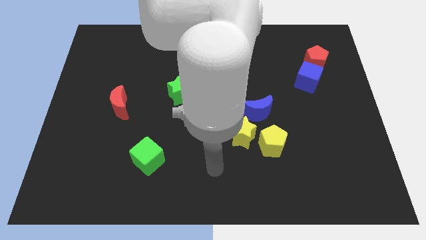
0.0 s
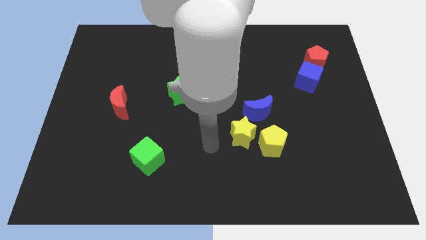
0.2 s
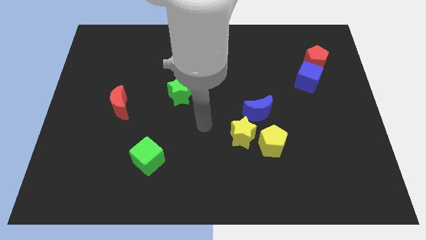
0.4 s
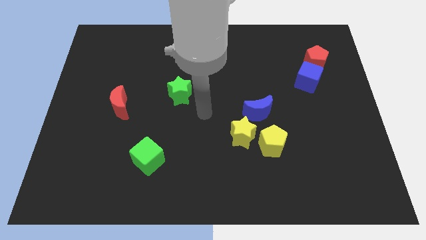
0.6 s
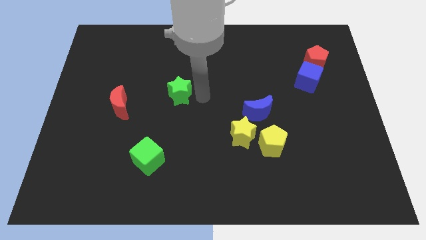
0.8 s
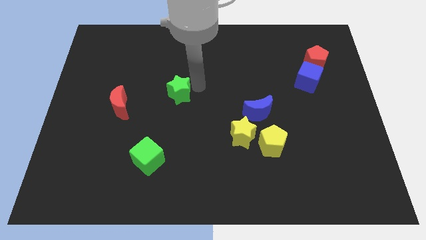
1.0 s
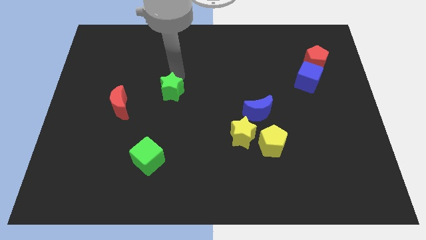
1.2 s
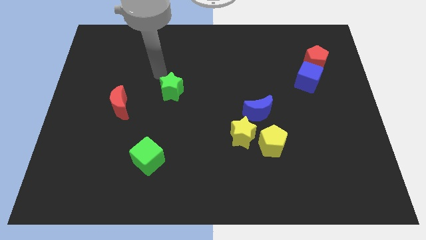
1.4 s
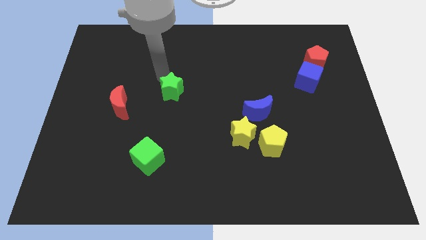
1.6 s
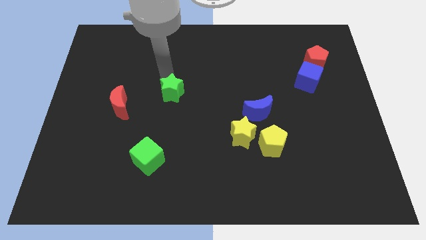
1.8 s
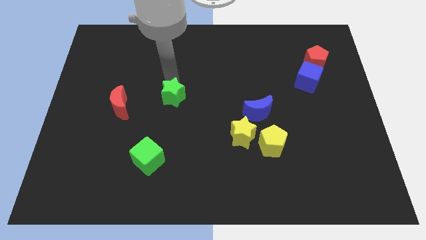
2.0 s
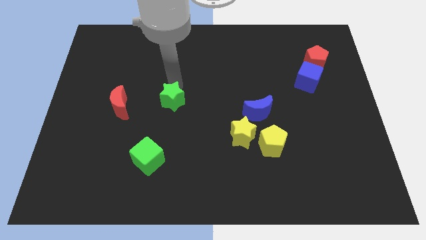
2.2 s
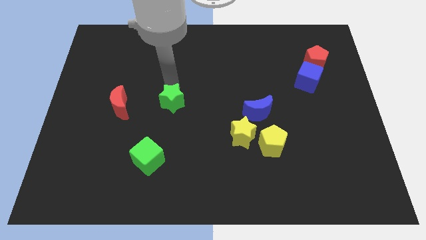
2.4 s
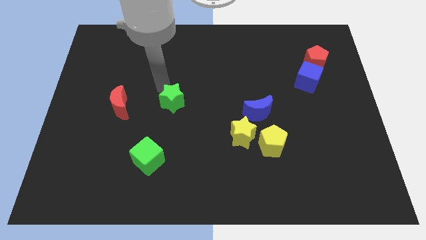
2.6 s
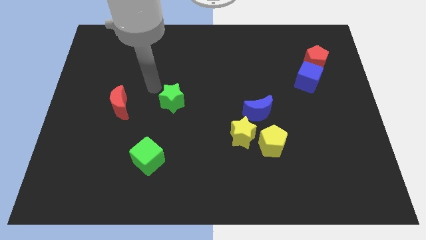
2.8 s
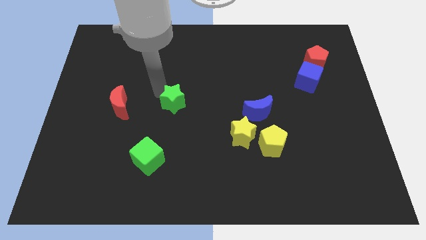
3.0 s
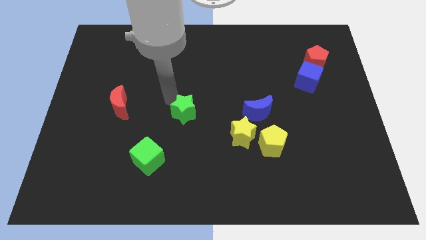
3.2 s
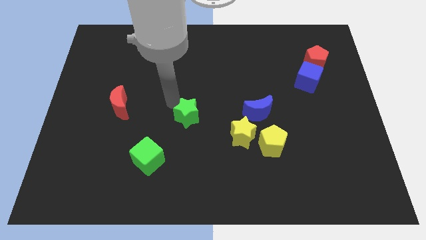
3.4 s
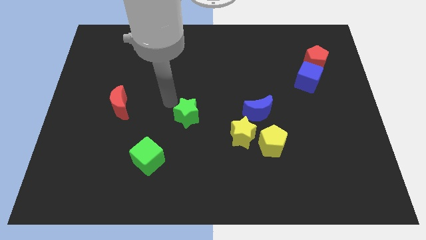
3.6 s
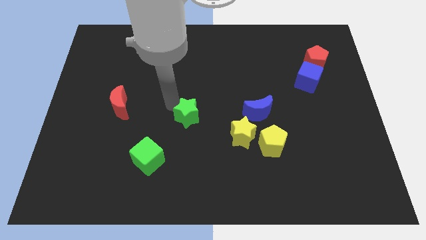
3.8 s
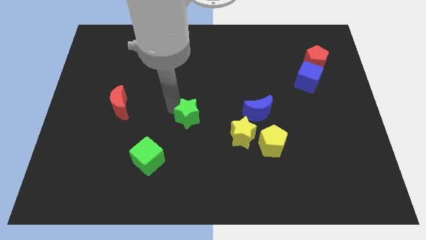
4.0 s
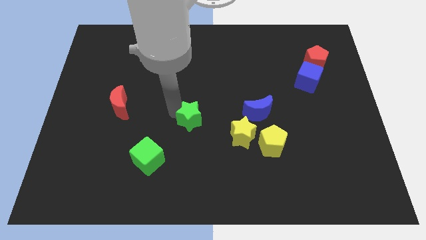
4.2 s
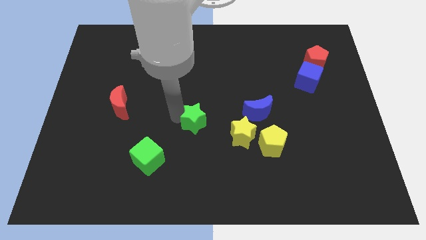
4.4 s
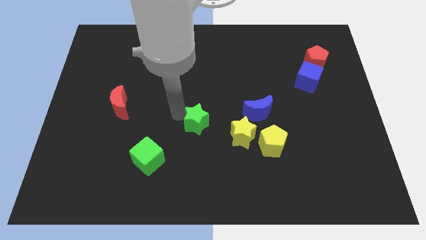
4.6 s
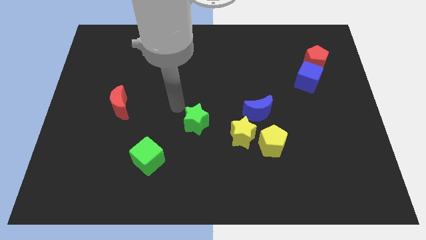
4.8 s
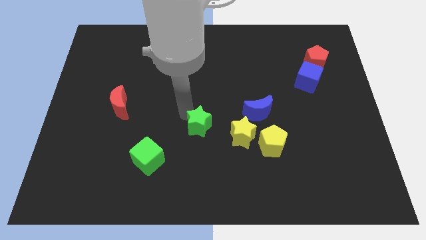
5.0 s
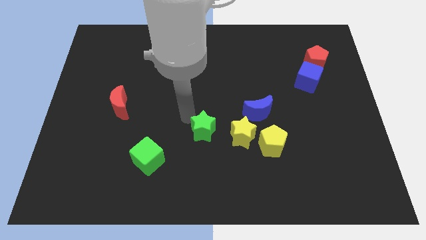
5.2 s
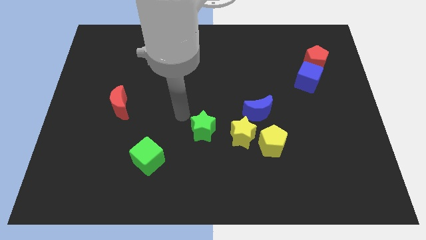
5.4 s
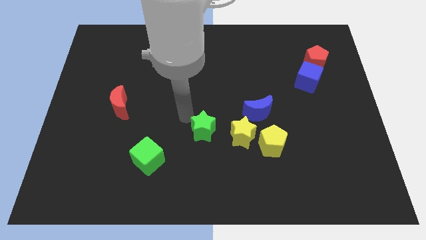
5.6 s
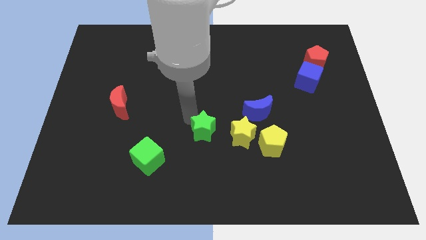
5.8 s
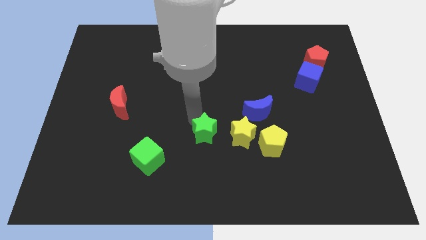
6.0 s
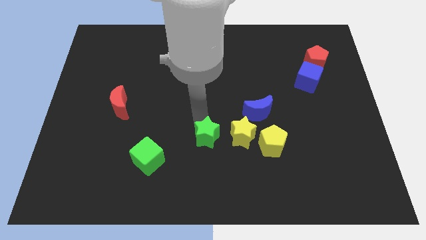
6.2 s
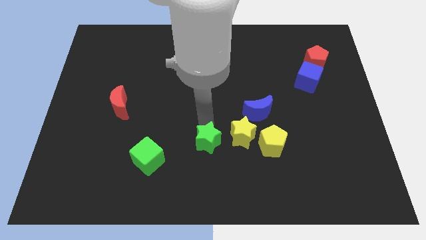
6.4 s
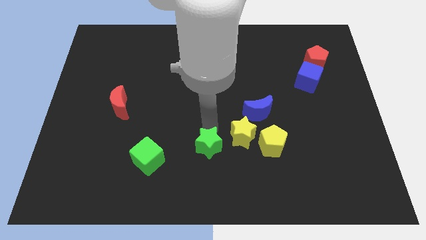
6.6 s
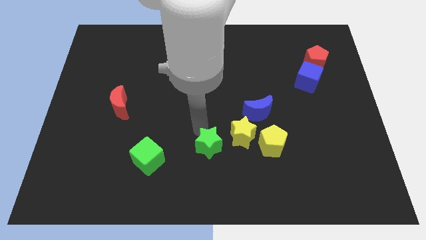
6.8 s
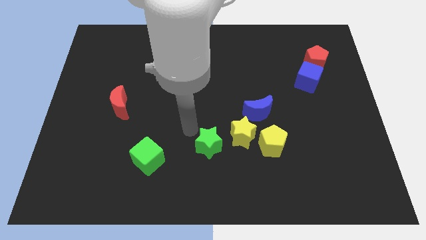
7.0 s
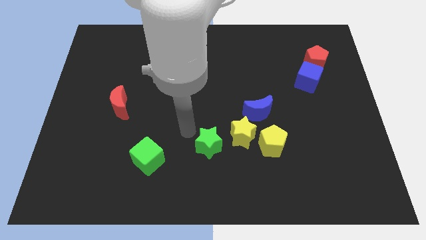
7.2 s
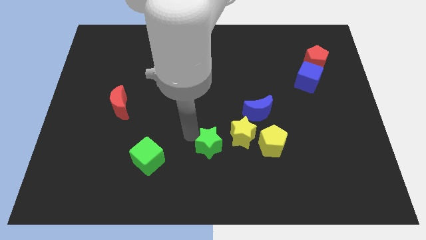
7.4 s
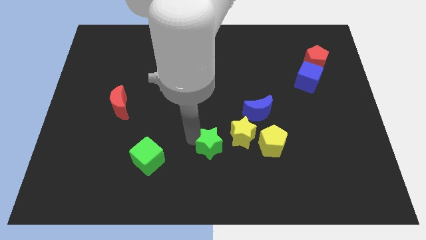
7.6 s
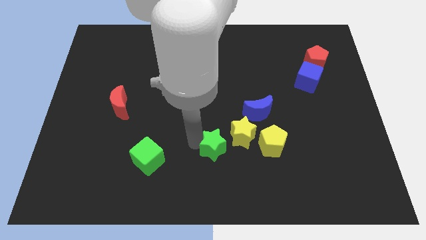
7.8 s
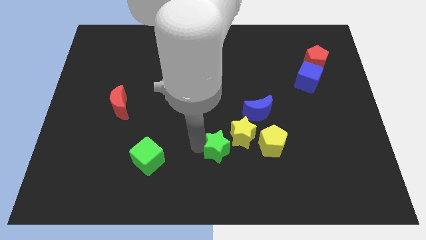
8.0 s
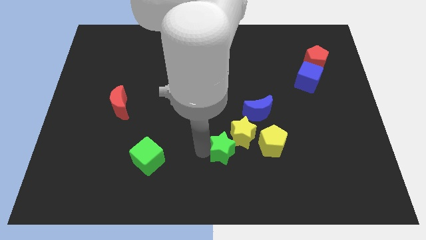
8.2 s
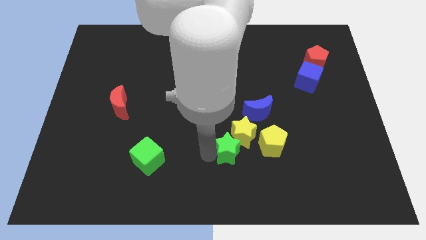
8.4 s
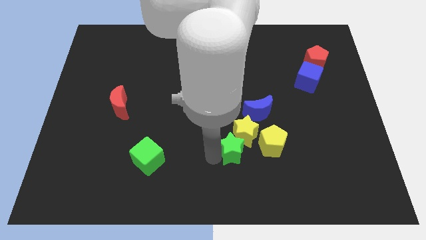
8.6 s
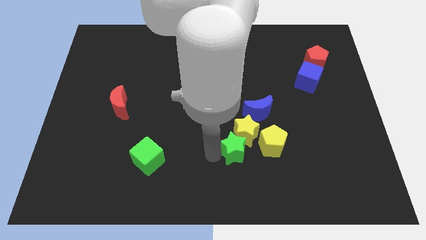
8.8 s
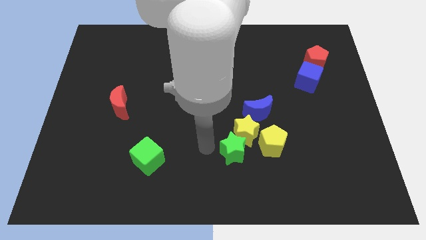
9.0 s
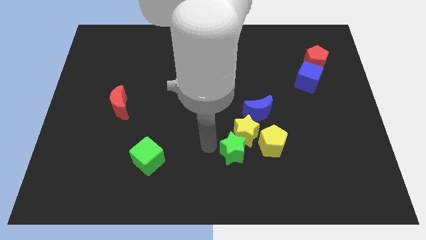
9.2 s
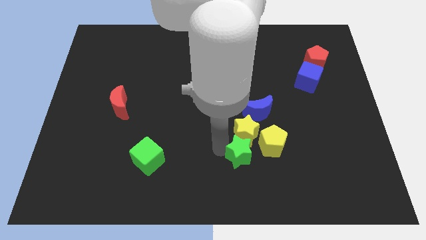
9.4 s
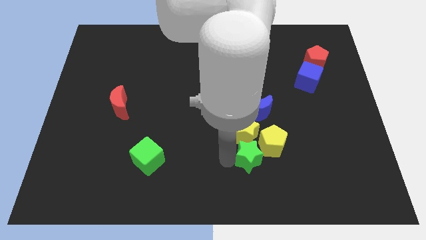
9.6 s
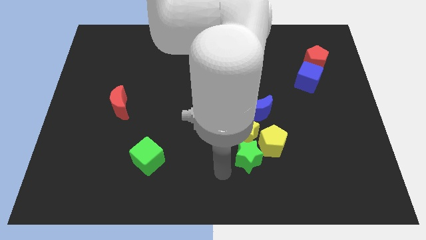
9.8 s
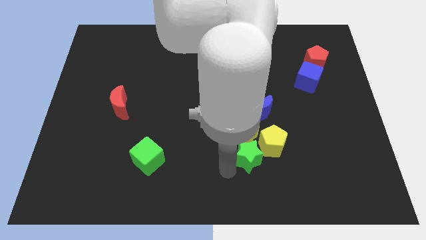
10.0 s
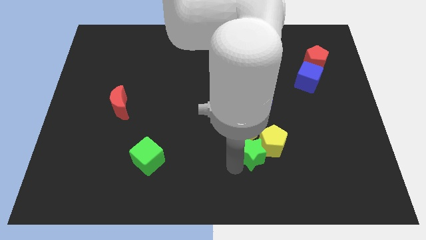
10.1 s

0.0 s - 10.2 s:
put the green star towards the yellow pentagon

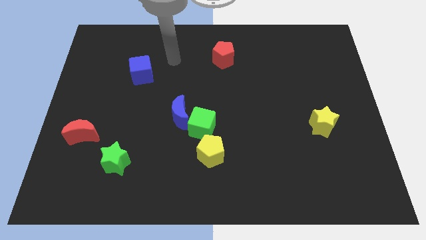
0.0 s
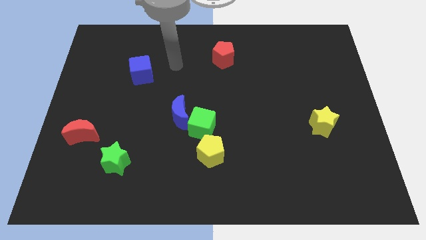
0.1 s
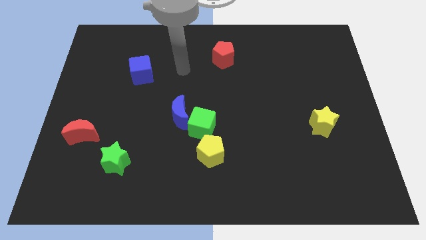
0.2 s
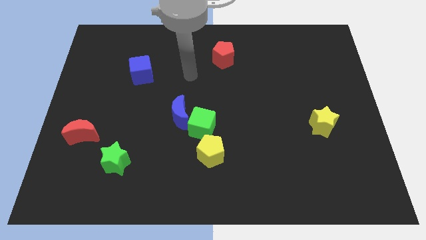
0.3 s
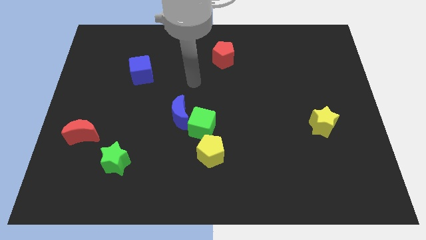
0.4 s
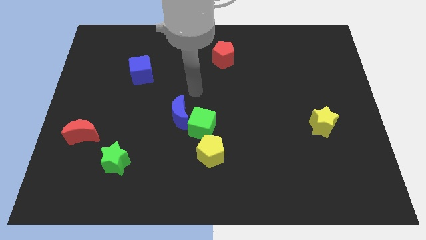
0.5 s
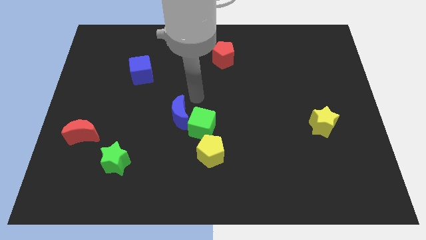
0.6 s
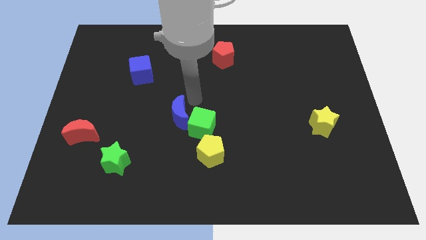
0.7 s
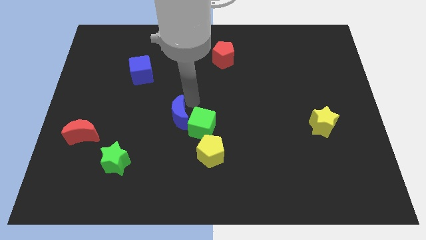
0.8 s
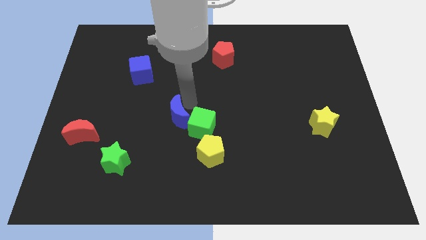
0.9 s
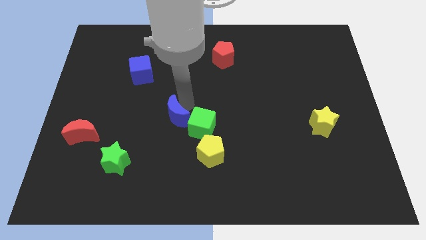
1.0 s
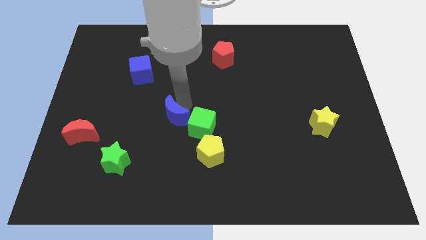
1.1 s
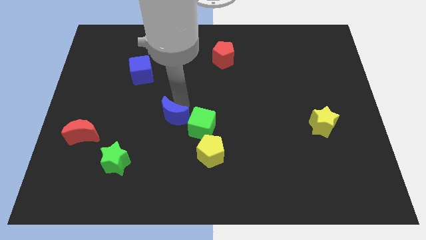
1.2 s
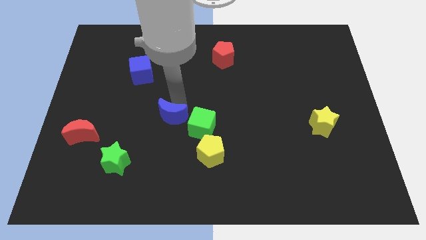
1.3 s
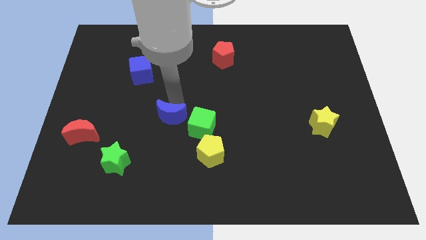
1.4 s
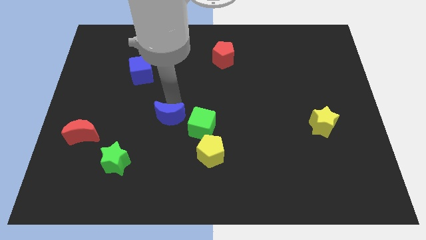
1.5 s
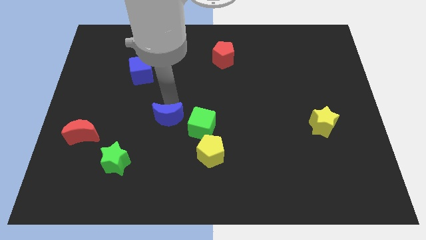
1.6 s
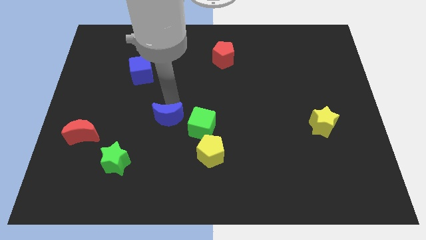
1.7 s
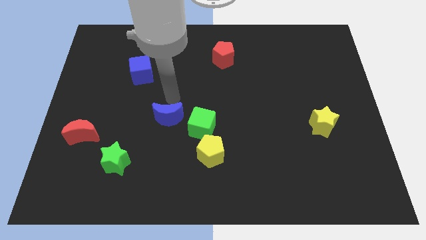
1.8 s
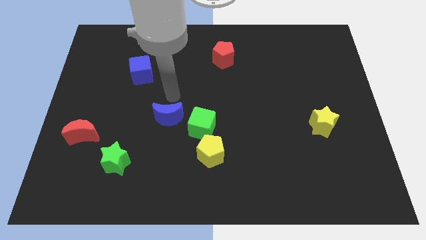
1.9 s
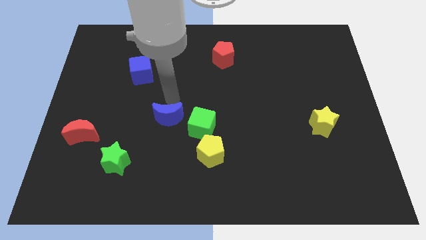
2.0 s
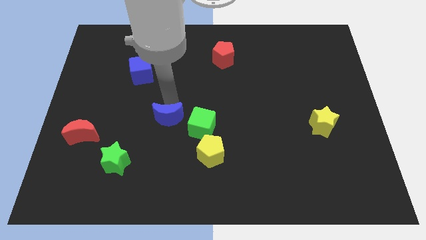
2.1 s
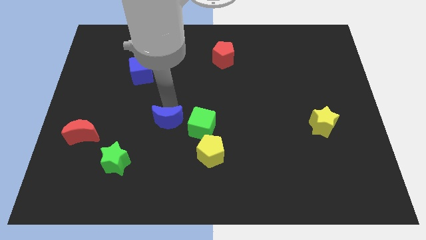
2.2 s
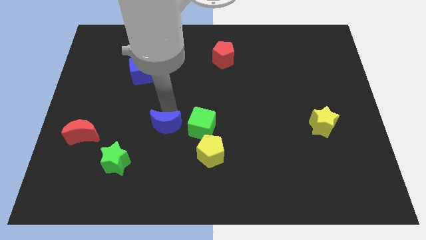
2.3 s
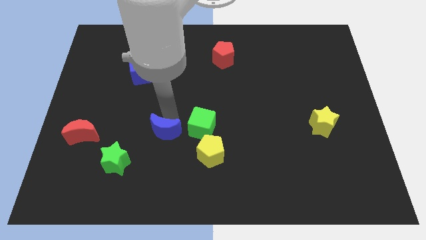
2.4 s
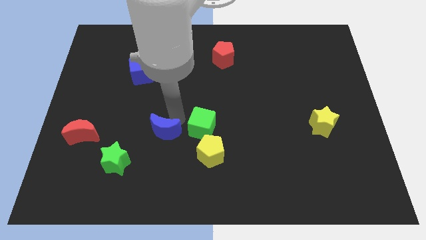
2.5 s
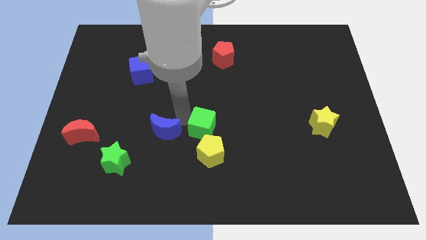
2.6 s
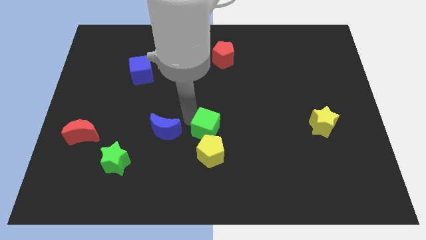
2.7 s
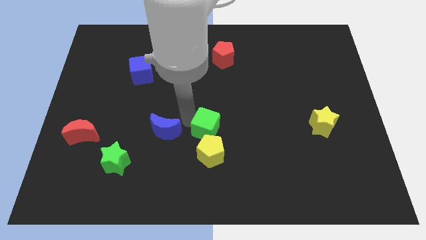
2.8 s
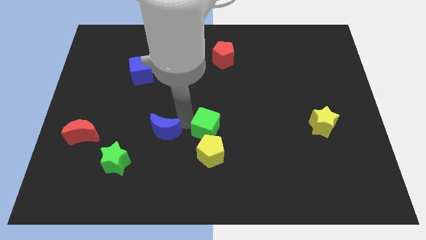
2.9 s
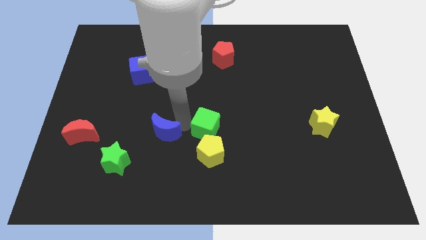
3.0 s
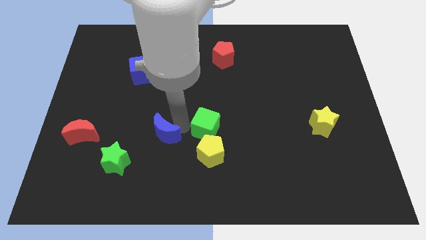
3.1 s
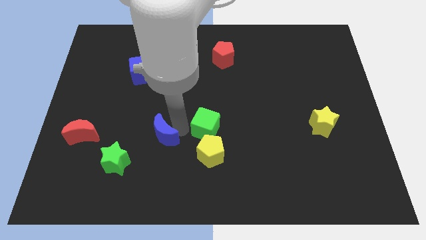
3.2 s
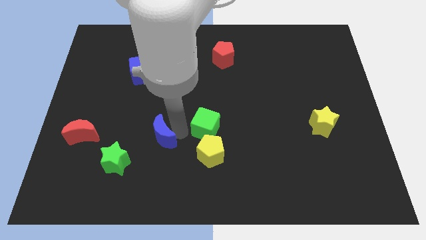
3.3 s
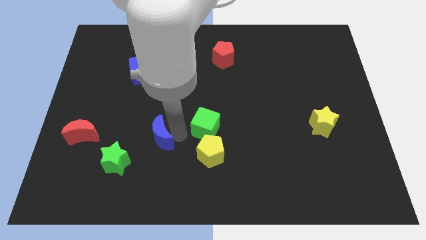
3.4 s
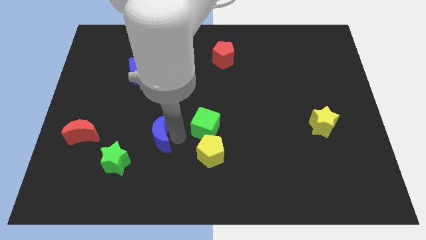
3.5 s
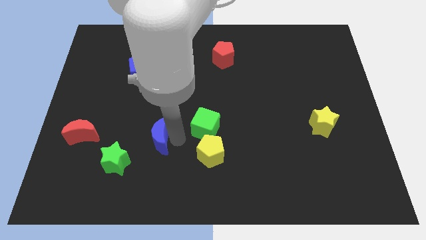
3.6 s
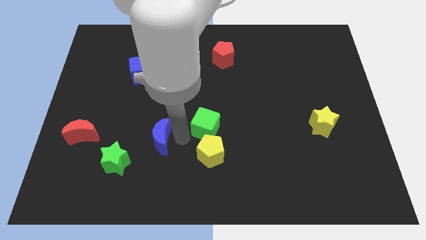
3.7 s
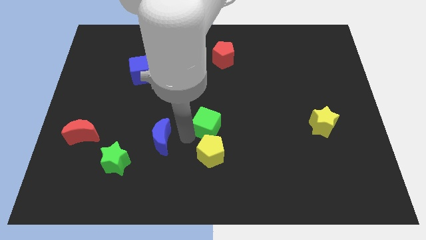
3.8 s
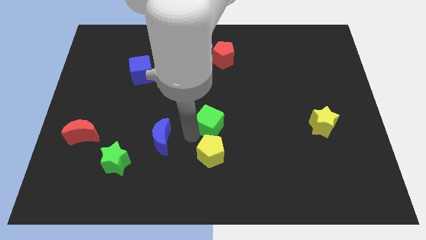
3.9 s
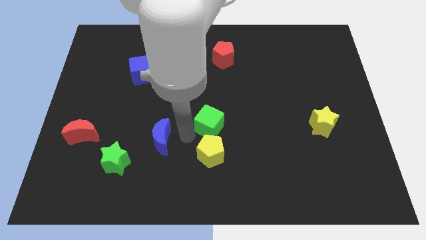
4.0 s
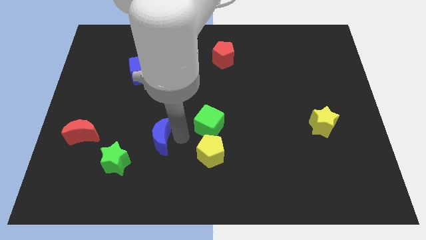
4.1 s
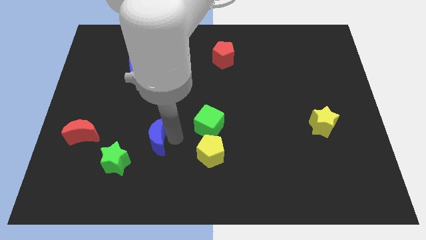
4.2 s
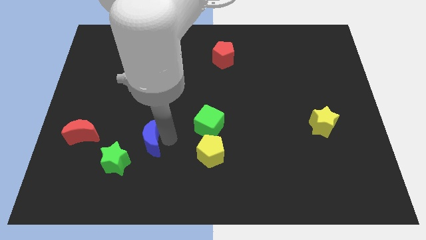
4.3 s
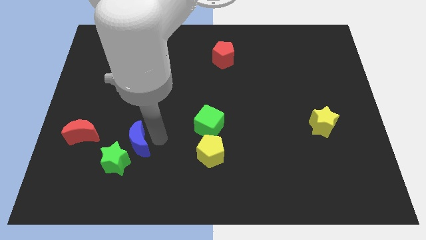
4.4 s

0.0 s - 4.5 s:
put the blue moon towards the green star
